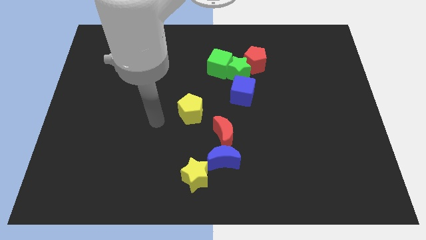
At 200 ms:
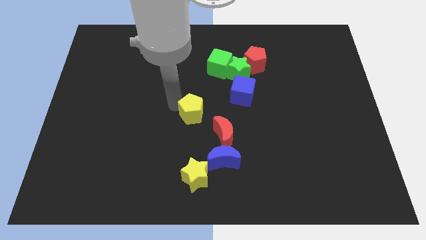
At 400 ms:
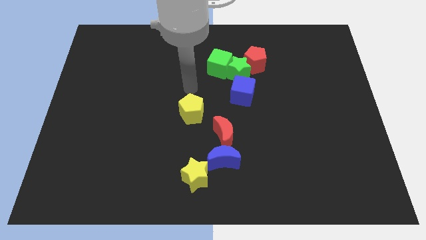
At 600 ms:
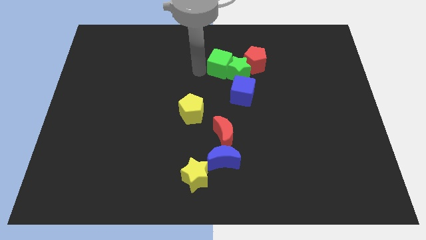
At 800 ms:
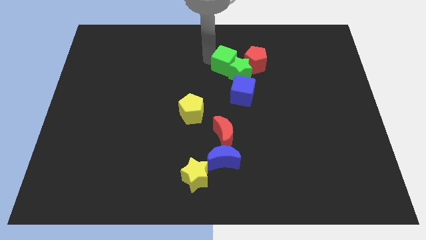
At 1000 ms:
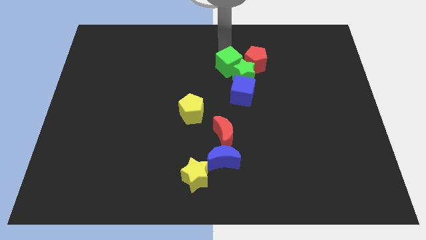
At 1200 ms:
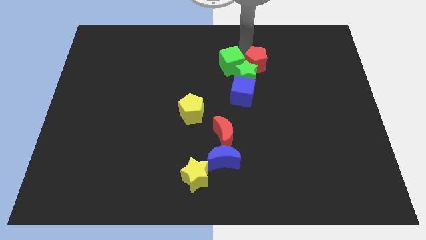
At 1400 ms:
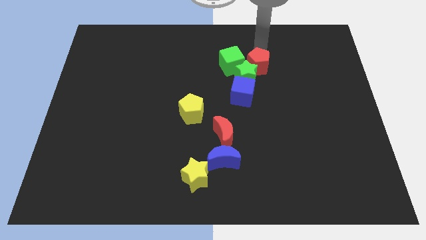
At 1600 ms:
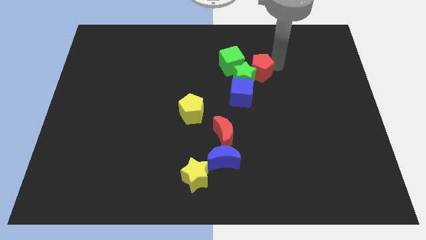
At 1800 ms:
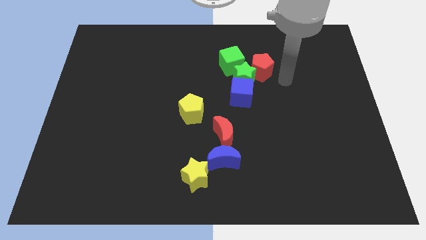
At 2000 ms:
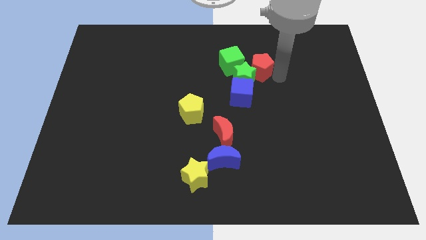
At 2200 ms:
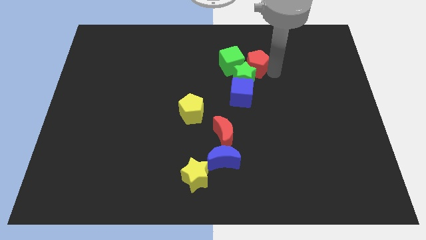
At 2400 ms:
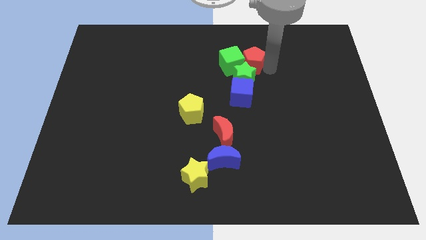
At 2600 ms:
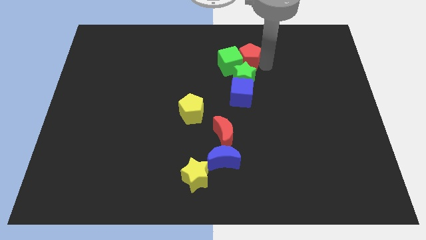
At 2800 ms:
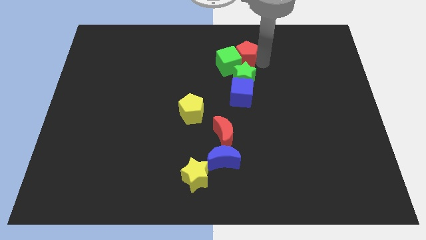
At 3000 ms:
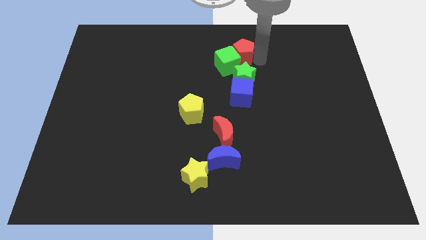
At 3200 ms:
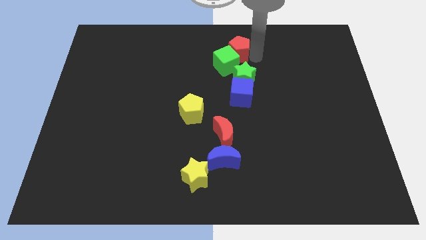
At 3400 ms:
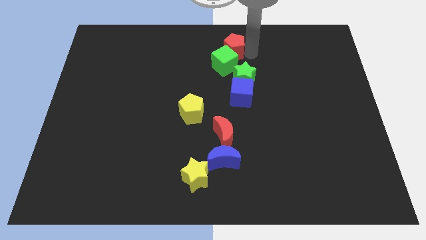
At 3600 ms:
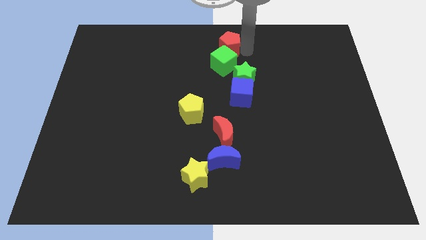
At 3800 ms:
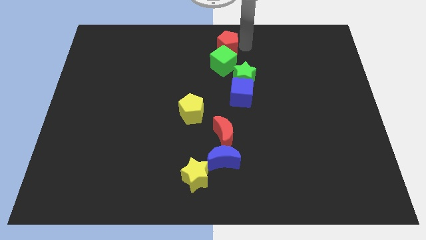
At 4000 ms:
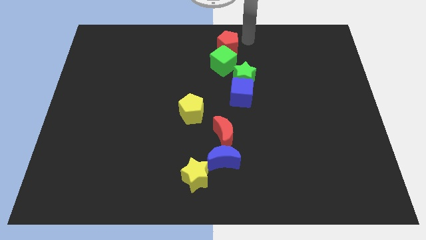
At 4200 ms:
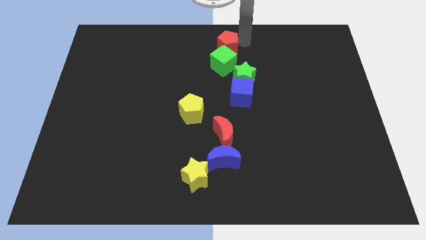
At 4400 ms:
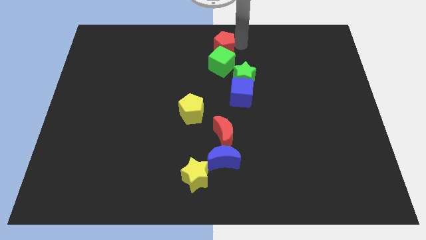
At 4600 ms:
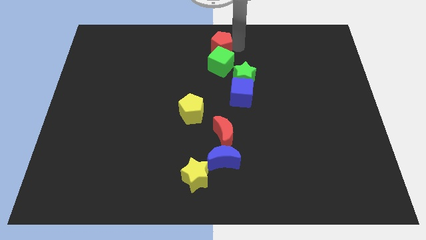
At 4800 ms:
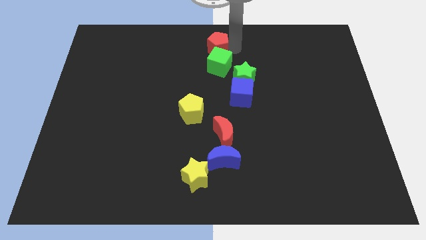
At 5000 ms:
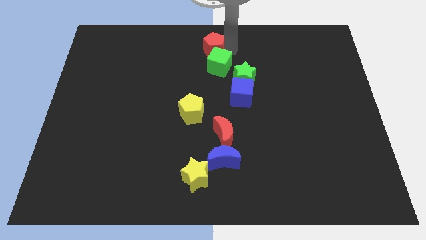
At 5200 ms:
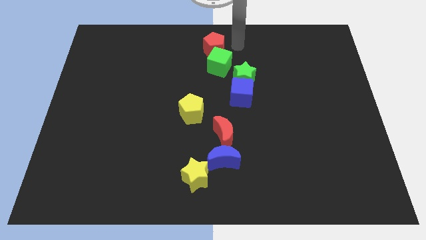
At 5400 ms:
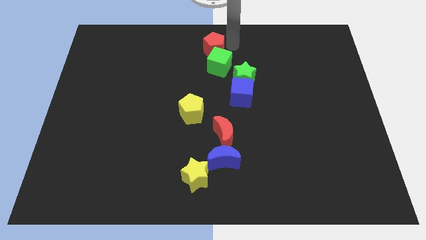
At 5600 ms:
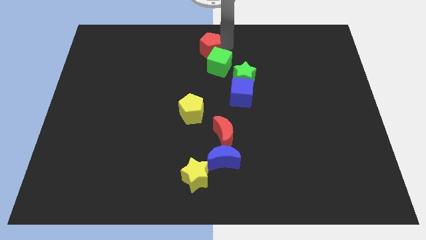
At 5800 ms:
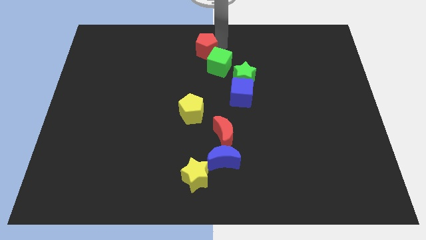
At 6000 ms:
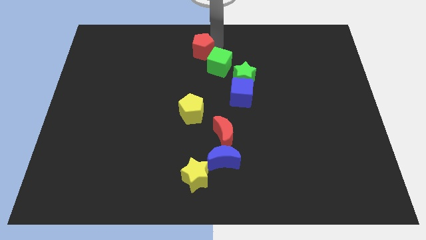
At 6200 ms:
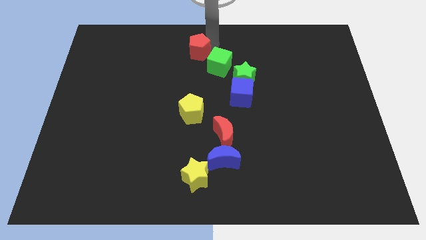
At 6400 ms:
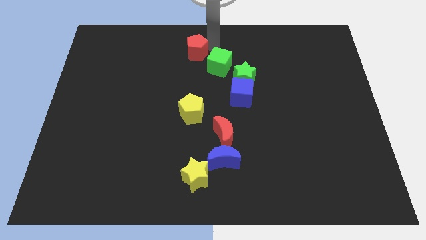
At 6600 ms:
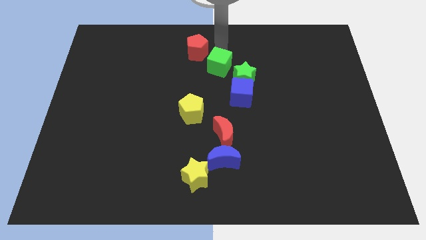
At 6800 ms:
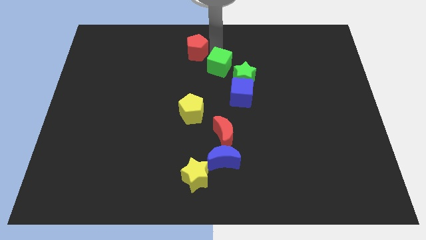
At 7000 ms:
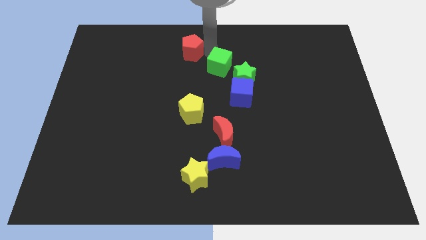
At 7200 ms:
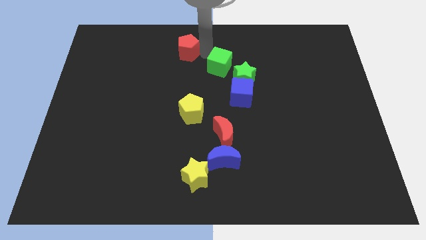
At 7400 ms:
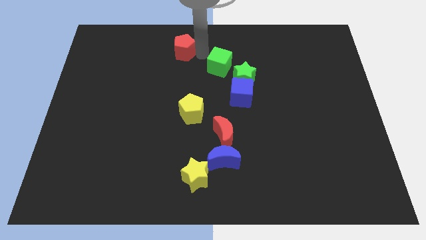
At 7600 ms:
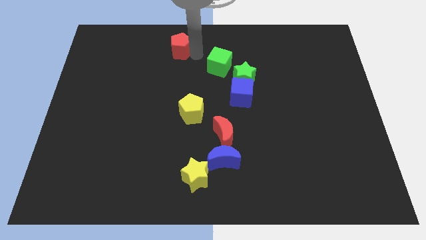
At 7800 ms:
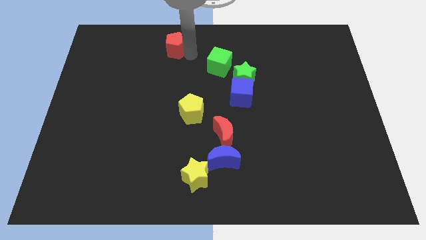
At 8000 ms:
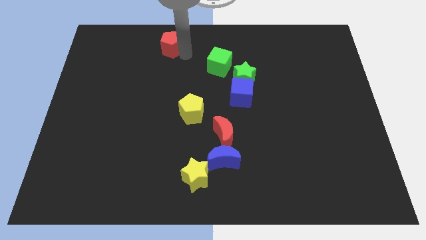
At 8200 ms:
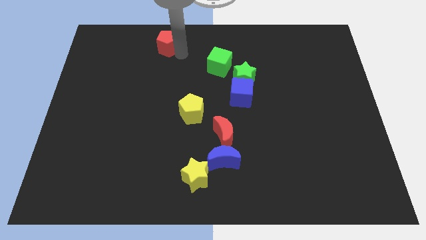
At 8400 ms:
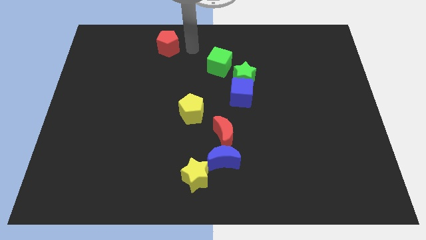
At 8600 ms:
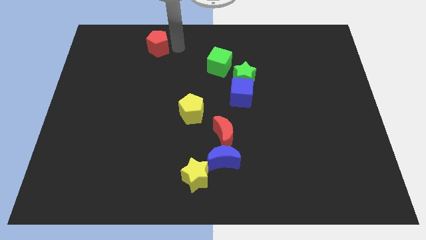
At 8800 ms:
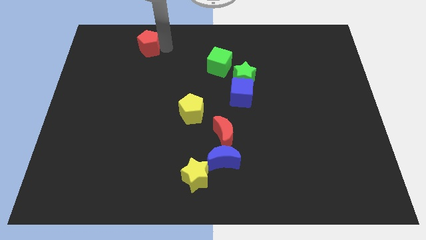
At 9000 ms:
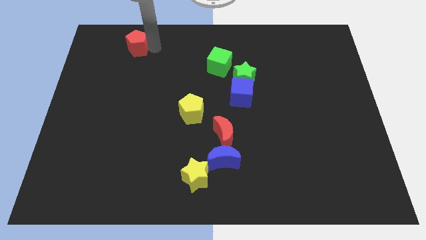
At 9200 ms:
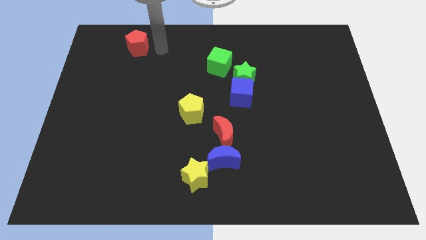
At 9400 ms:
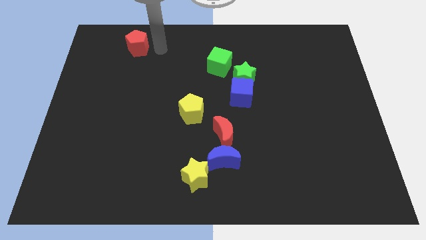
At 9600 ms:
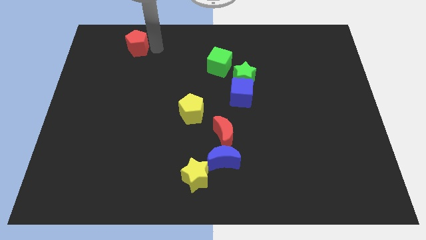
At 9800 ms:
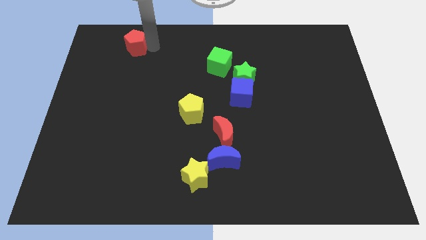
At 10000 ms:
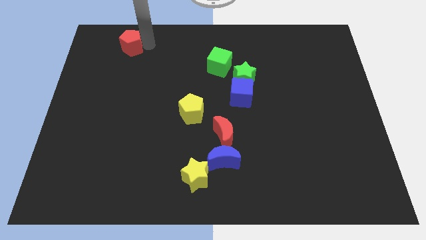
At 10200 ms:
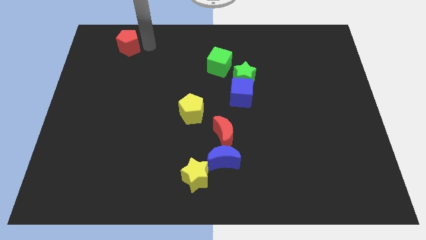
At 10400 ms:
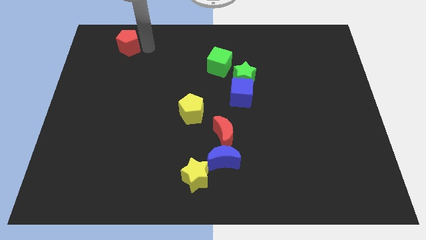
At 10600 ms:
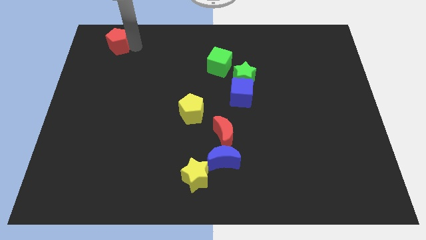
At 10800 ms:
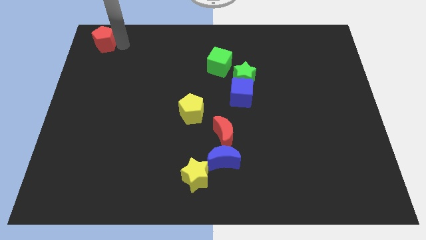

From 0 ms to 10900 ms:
put the red pentagon to the top left of the board

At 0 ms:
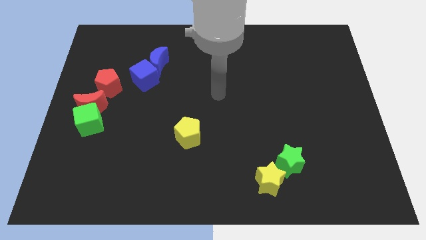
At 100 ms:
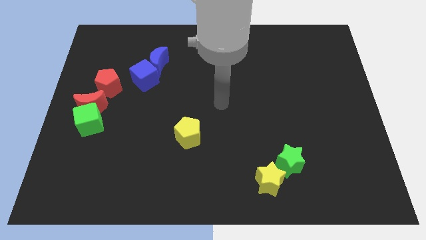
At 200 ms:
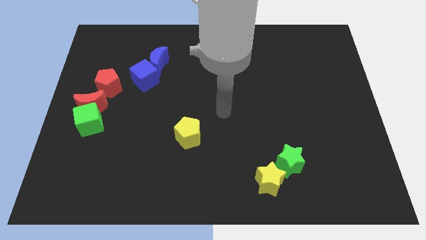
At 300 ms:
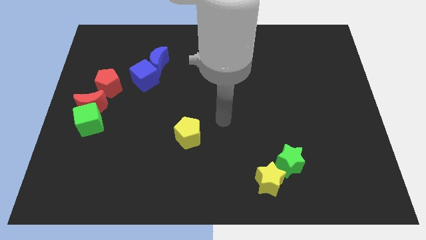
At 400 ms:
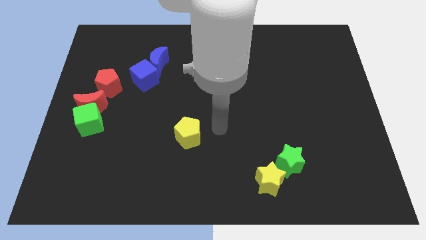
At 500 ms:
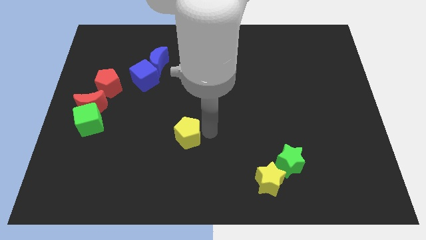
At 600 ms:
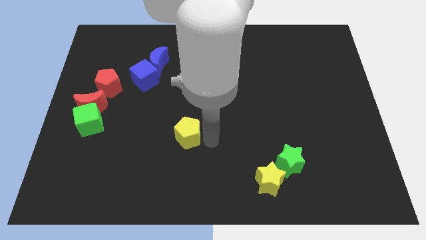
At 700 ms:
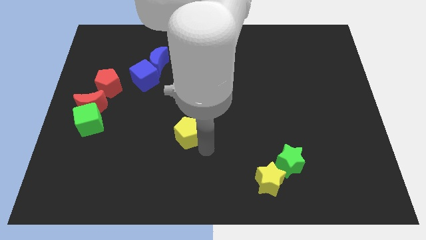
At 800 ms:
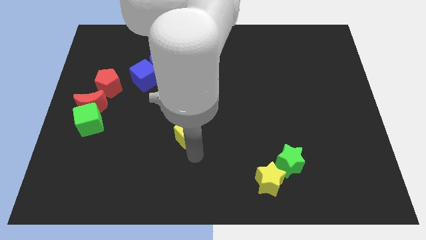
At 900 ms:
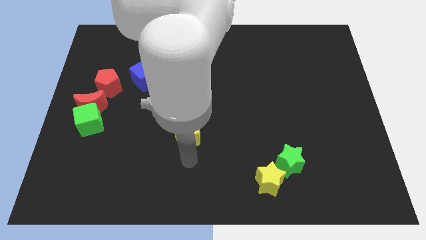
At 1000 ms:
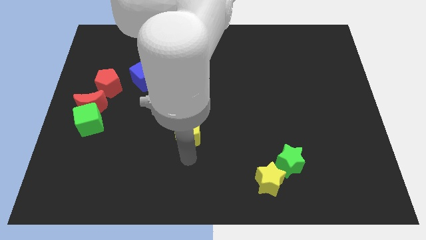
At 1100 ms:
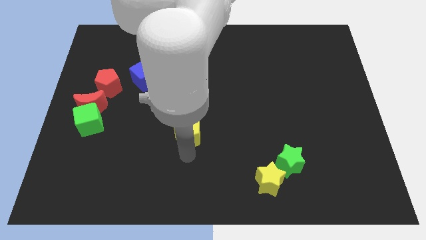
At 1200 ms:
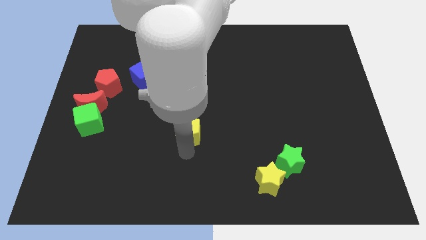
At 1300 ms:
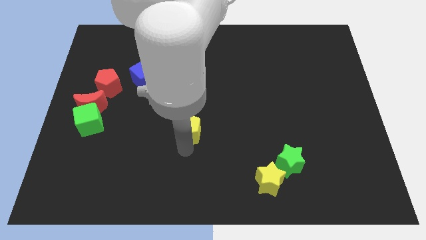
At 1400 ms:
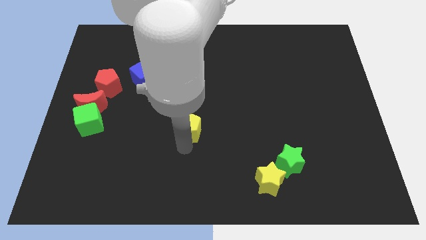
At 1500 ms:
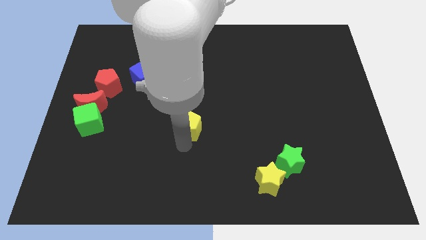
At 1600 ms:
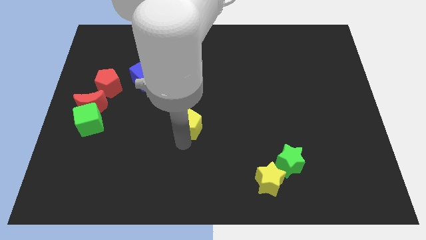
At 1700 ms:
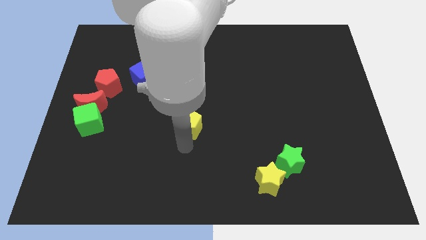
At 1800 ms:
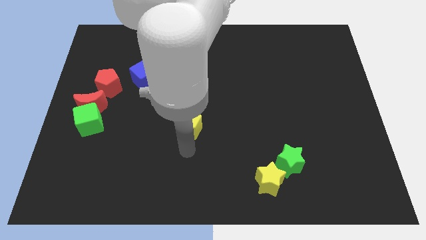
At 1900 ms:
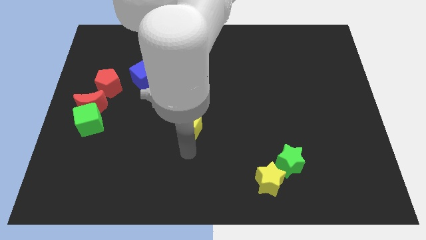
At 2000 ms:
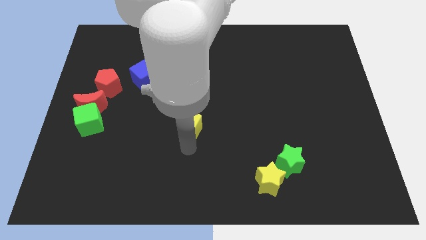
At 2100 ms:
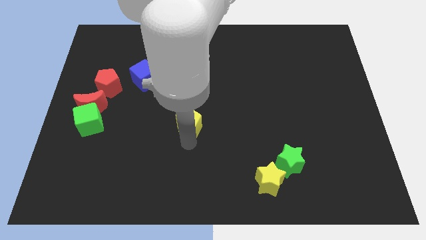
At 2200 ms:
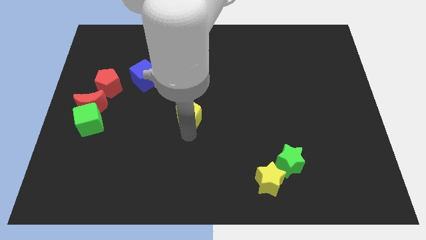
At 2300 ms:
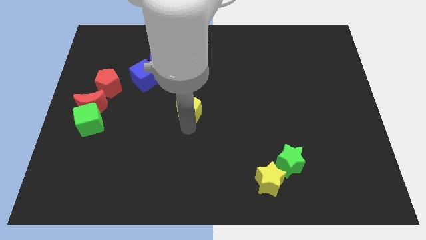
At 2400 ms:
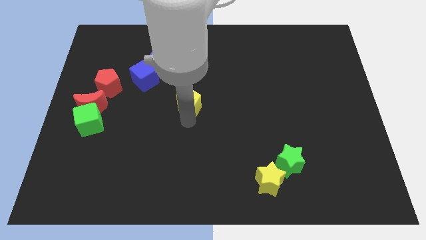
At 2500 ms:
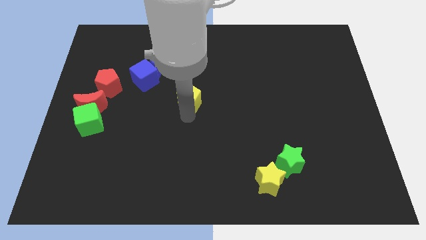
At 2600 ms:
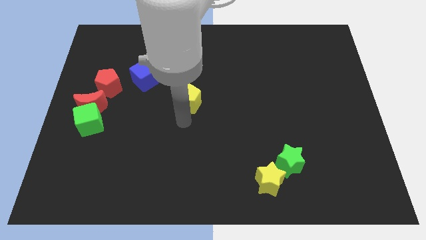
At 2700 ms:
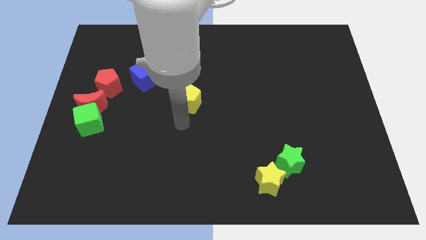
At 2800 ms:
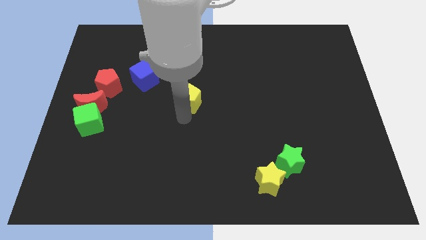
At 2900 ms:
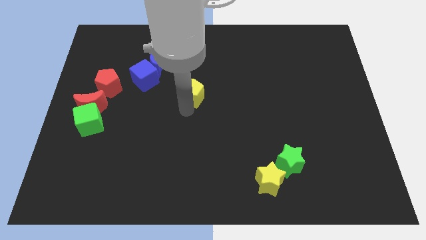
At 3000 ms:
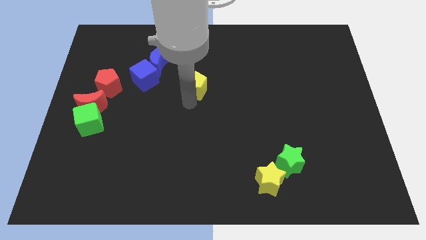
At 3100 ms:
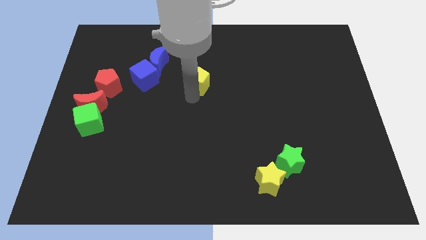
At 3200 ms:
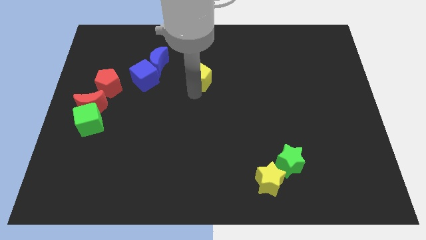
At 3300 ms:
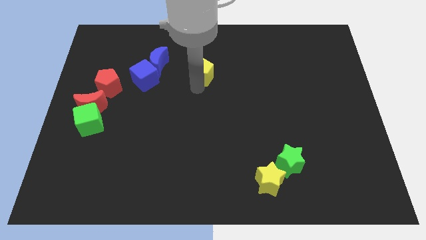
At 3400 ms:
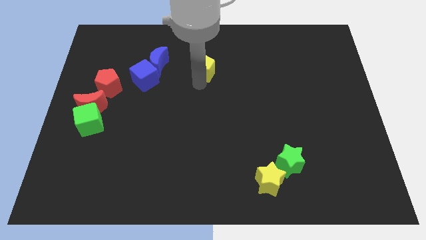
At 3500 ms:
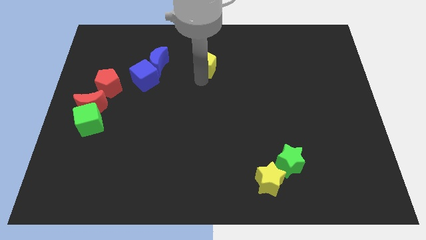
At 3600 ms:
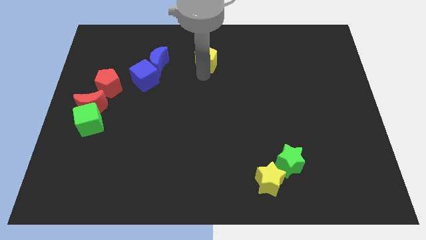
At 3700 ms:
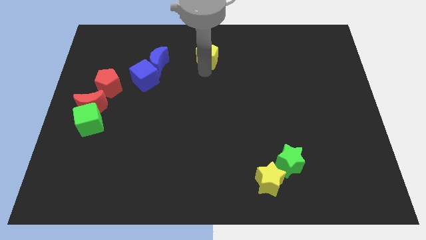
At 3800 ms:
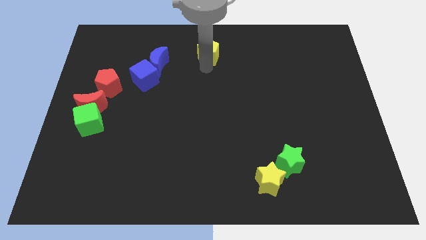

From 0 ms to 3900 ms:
put the yellow pentagon to the towards your base
